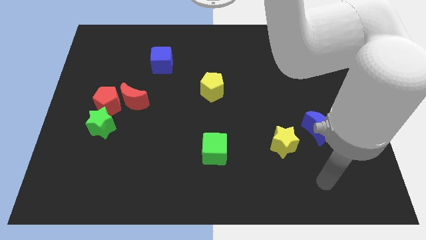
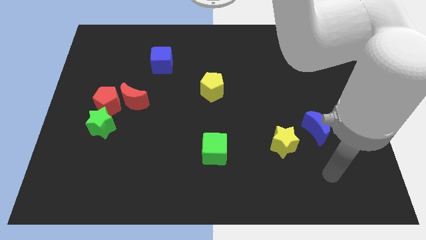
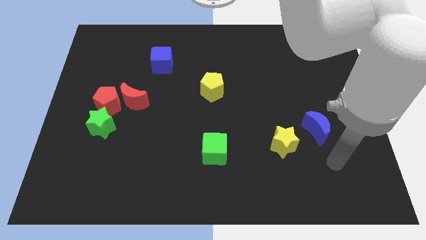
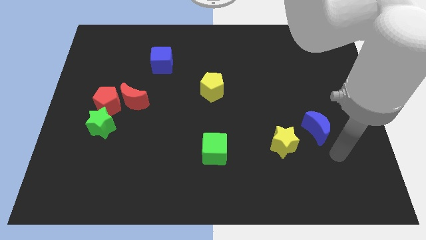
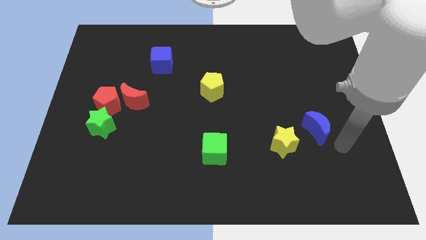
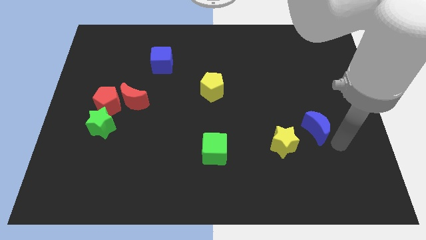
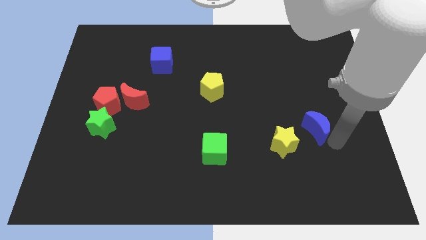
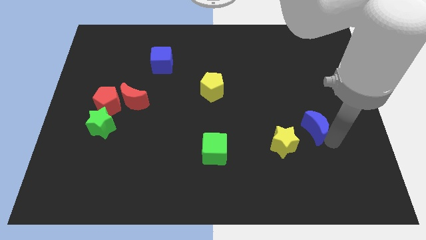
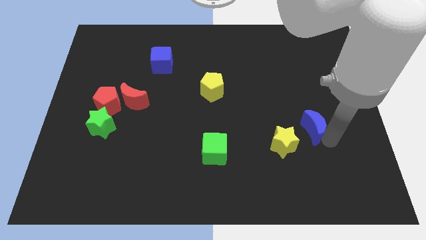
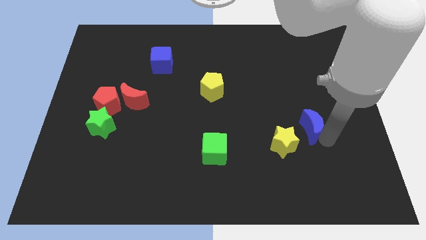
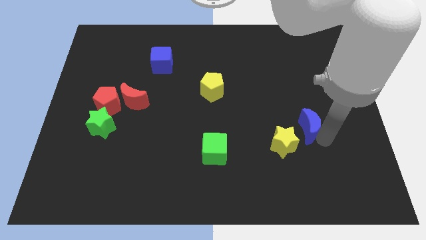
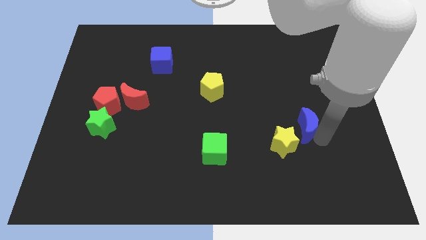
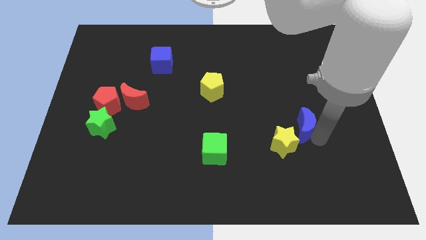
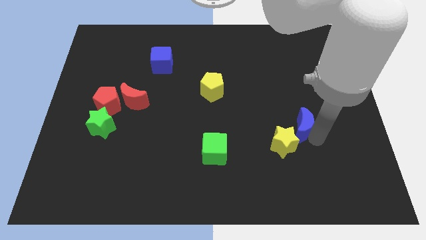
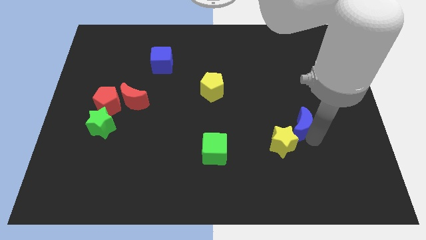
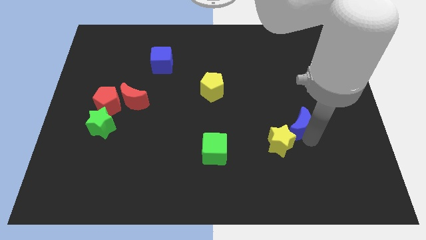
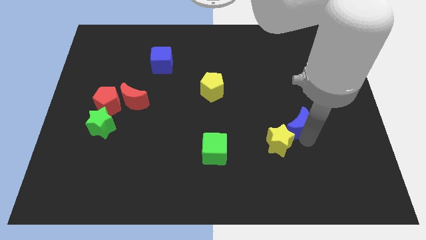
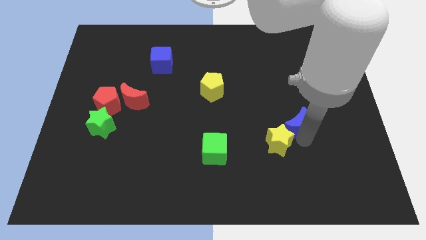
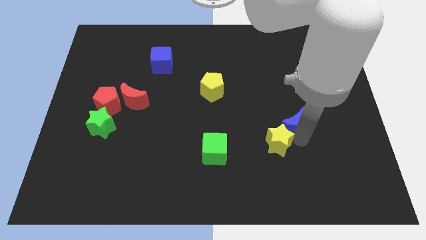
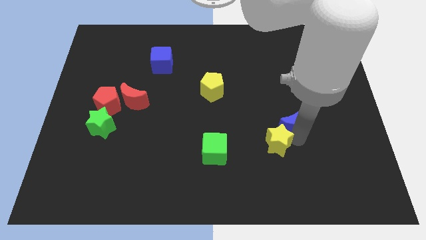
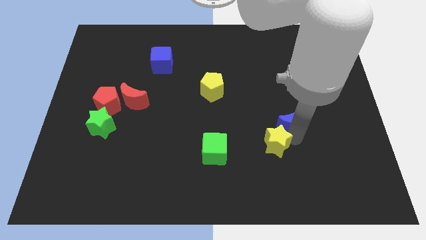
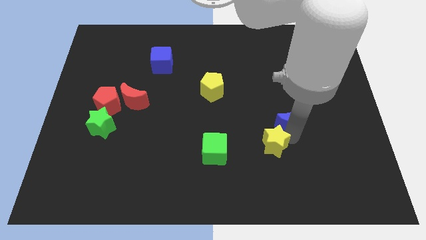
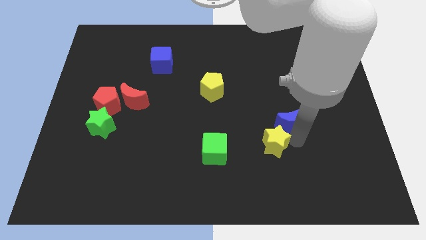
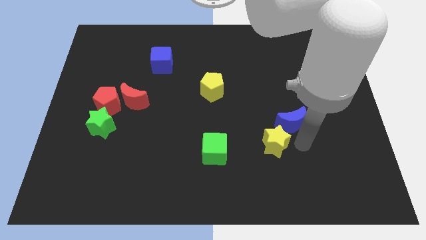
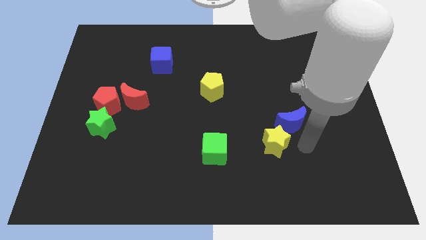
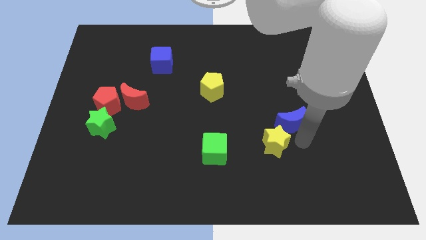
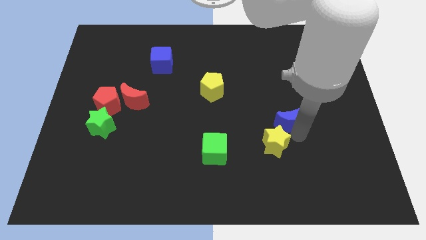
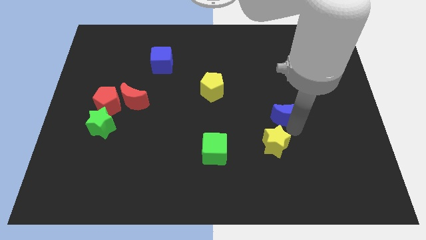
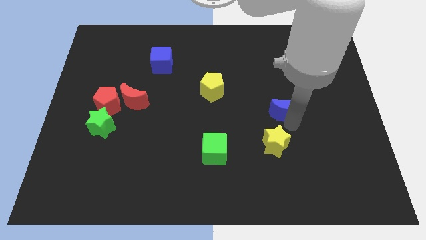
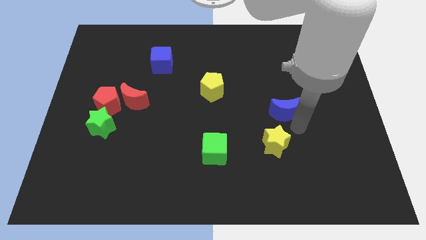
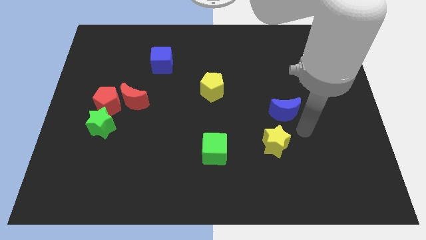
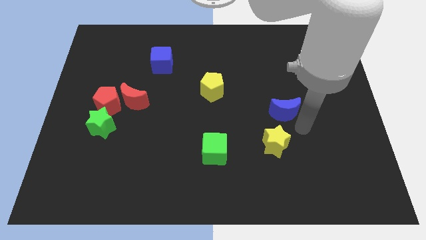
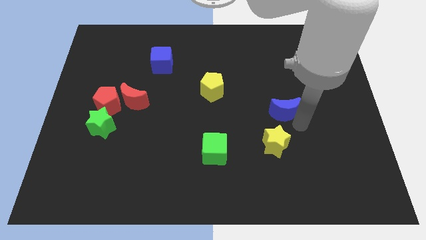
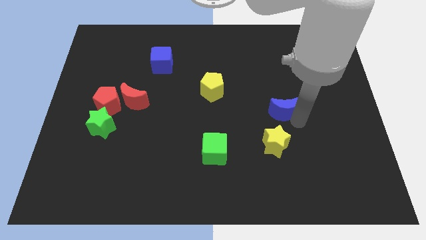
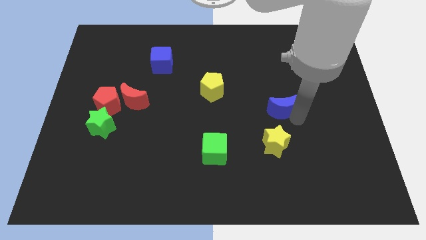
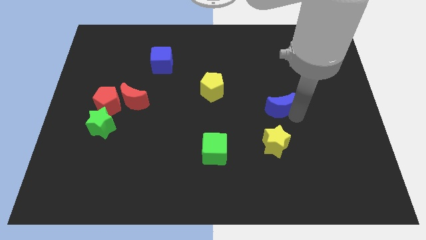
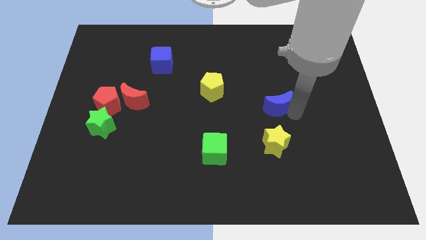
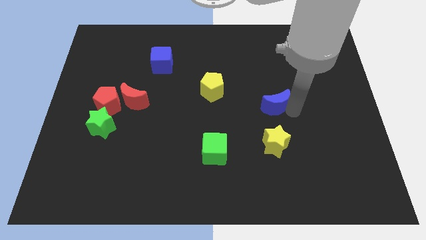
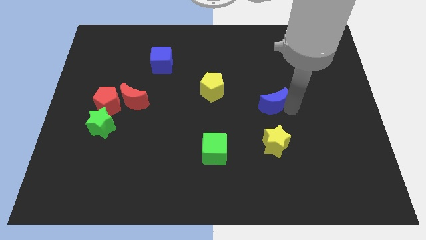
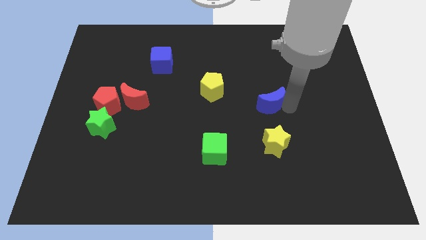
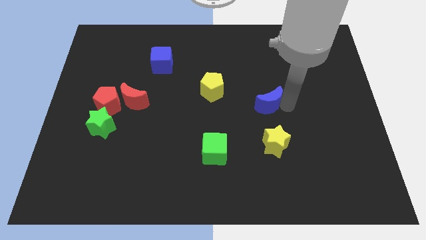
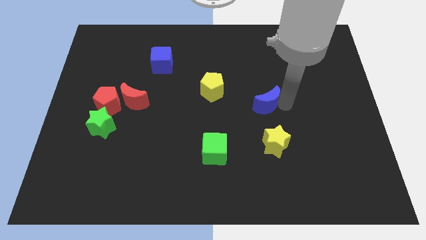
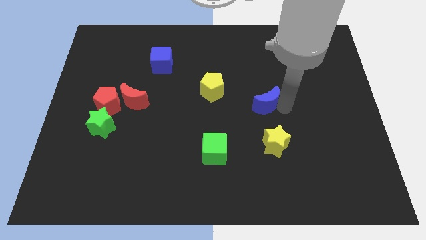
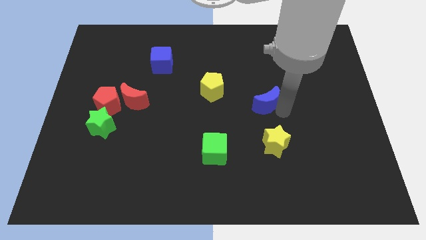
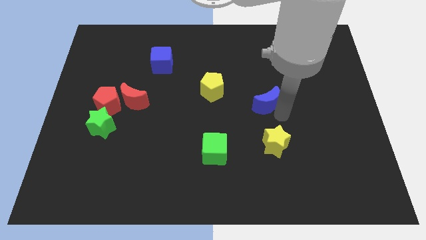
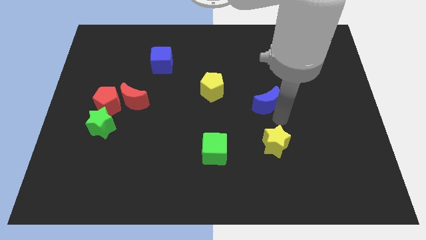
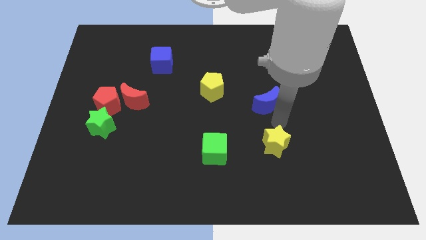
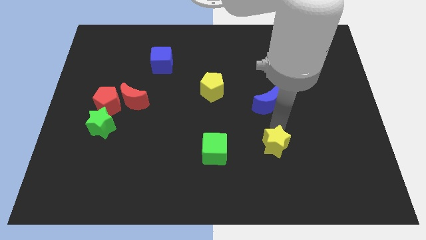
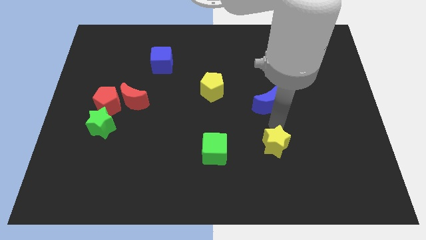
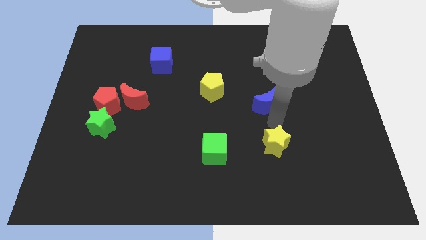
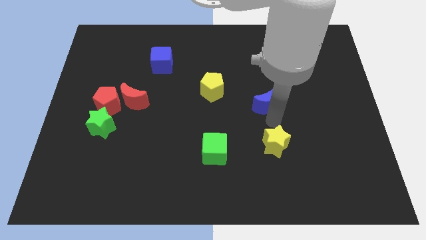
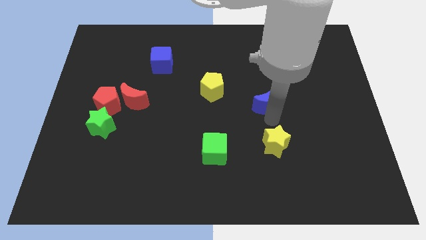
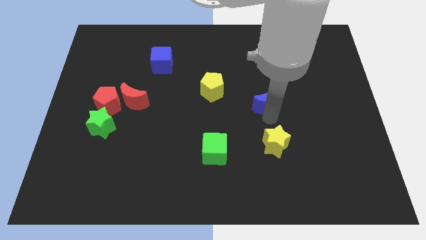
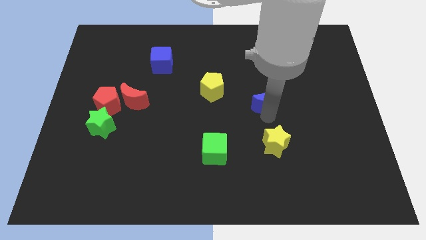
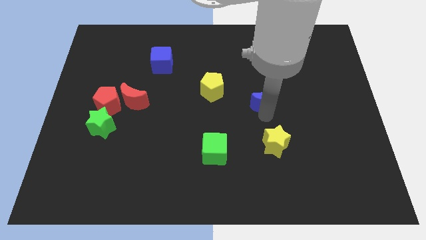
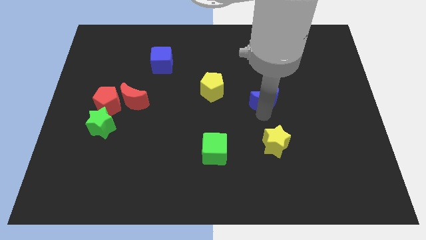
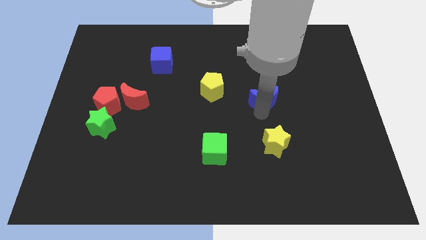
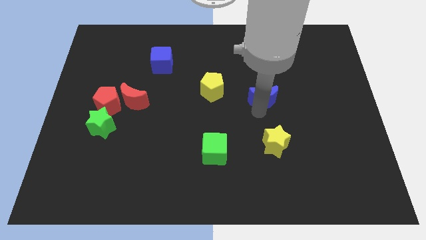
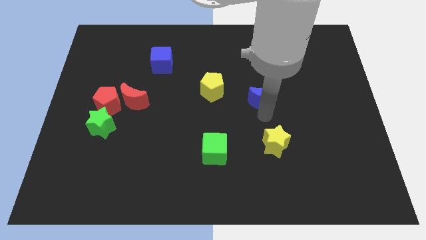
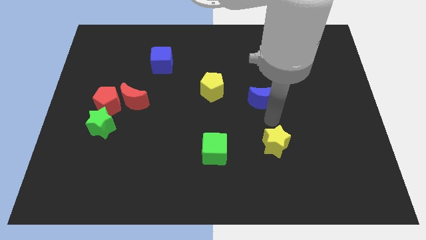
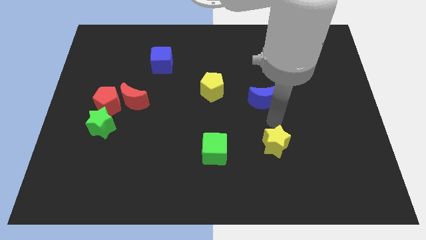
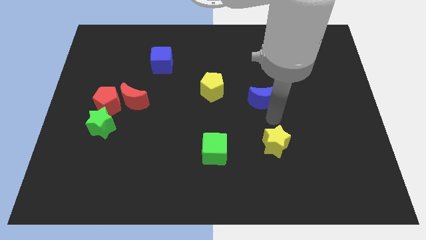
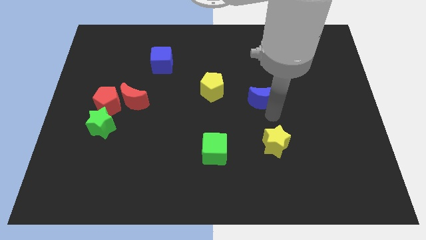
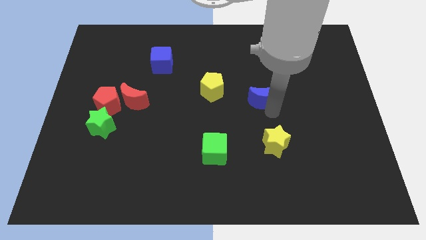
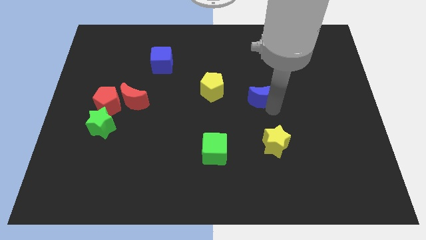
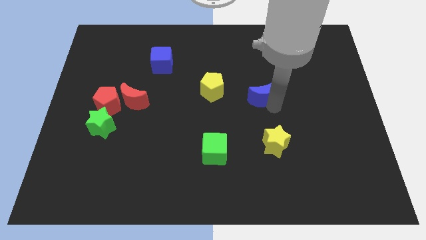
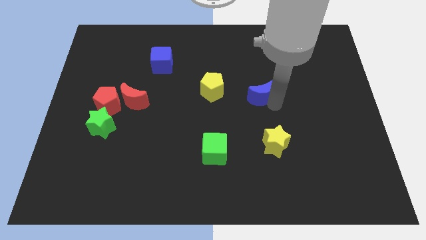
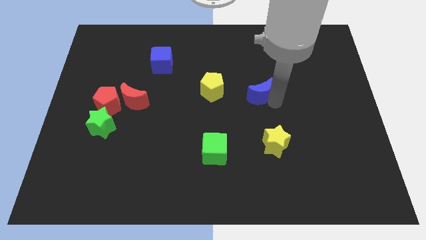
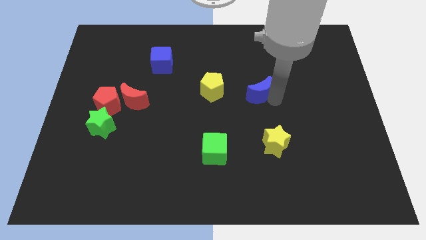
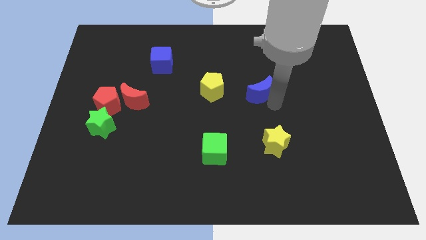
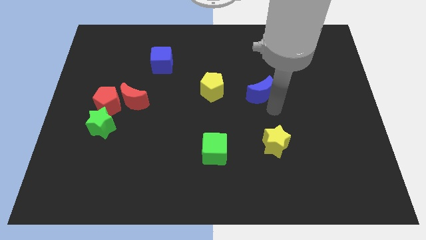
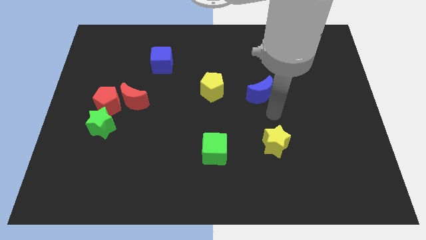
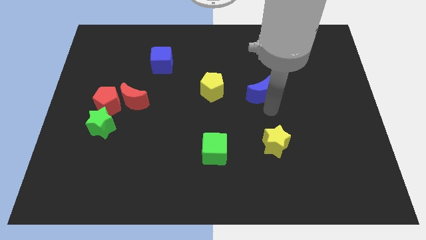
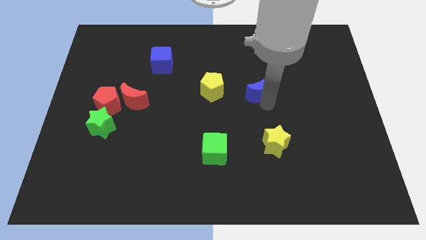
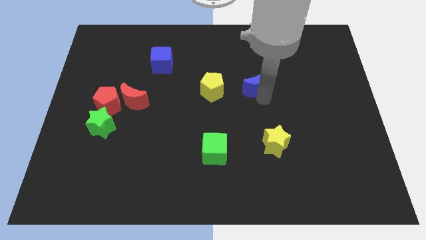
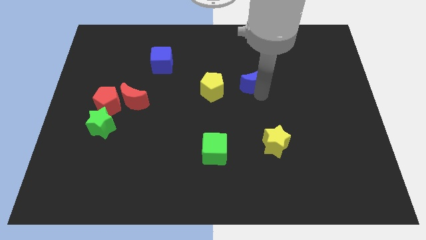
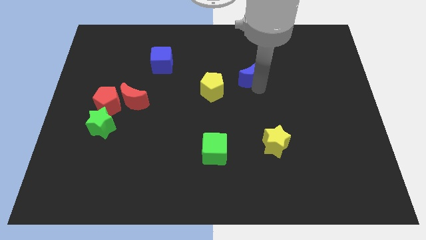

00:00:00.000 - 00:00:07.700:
move the blue moon up and then left

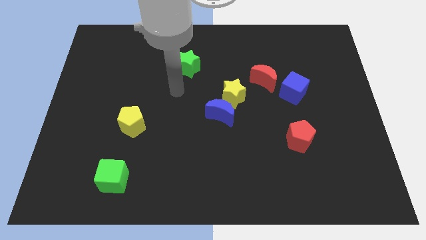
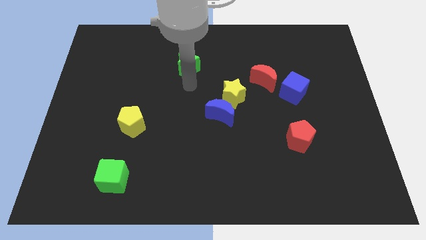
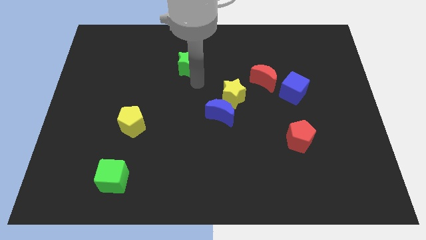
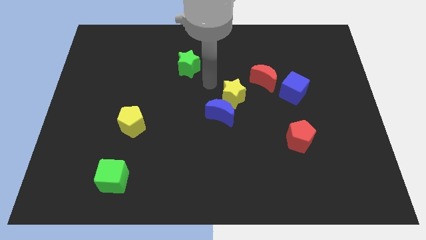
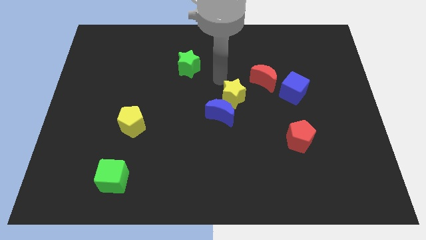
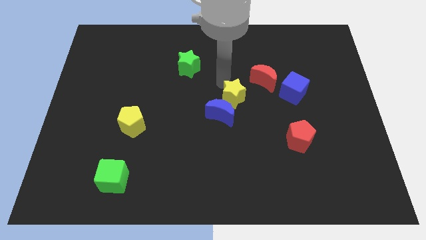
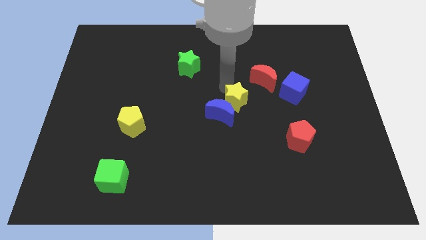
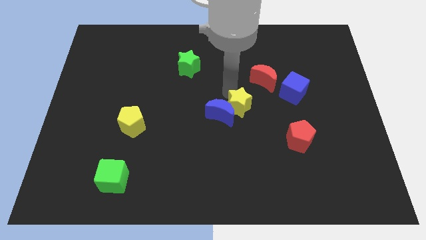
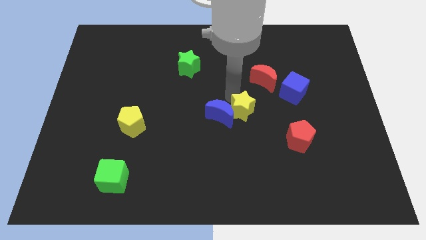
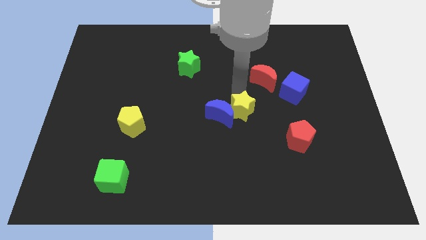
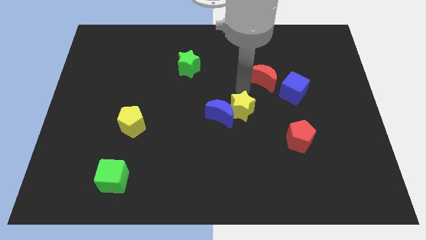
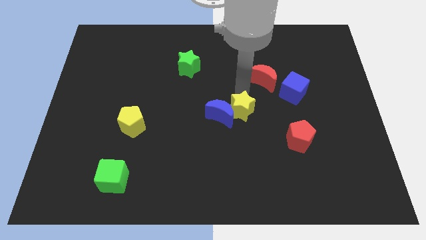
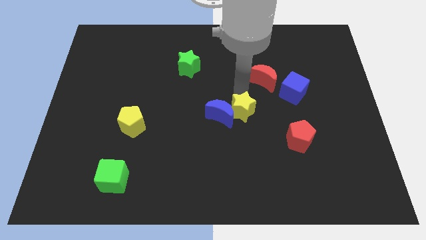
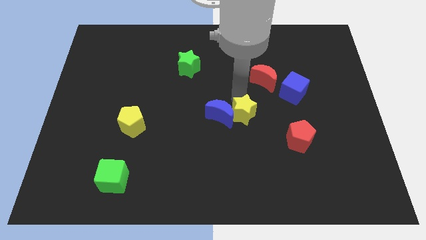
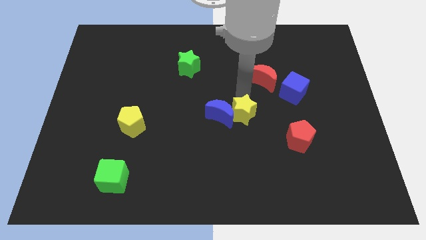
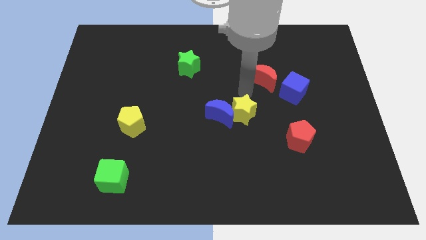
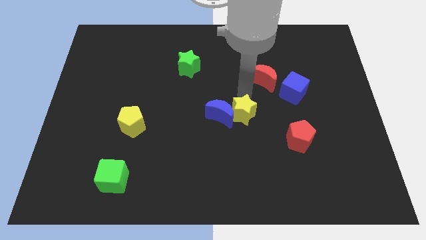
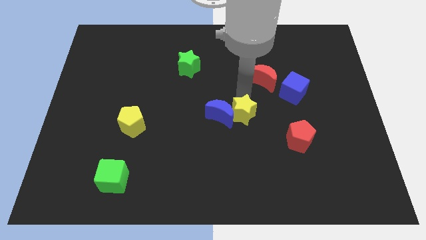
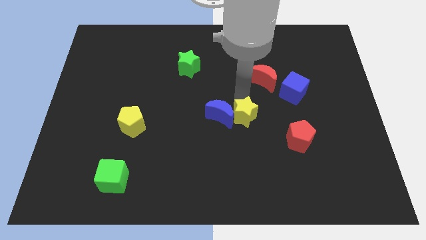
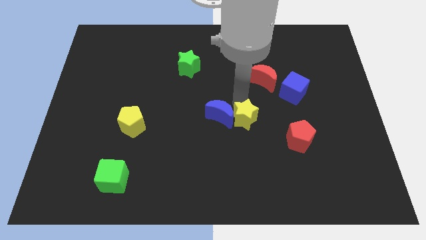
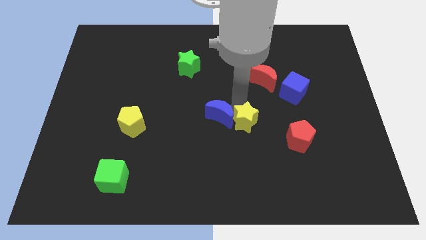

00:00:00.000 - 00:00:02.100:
slightly push the yellow star downwards
